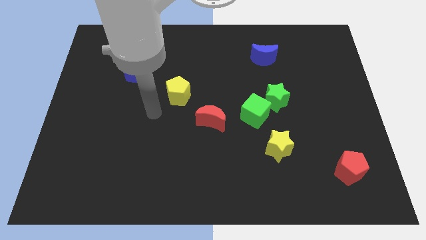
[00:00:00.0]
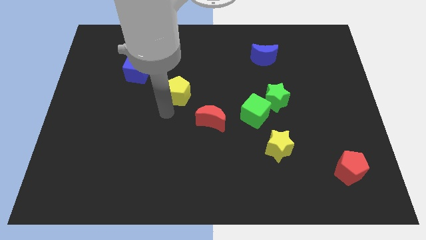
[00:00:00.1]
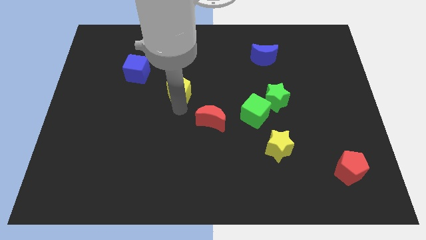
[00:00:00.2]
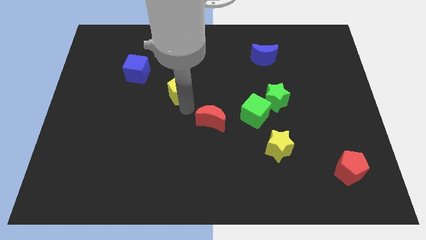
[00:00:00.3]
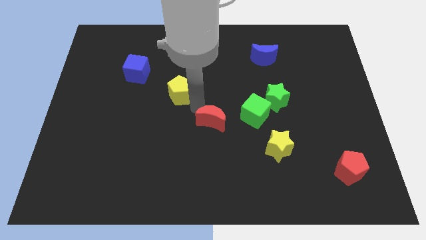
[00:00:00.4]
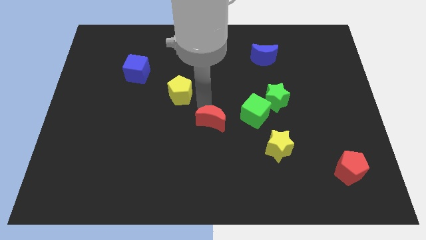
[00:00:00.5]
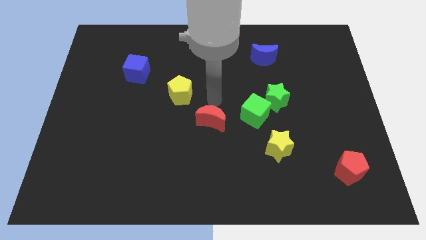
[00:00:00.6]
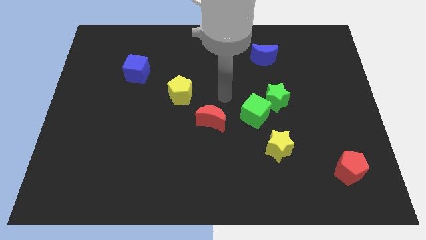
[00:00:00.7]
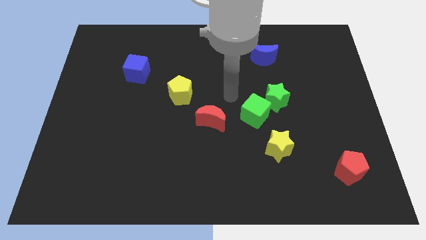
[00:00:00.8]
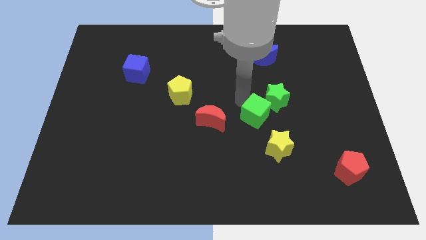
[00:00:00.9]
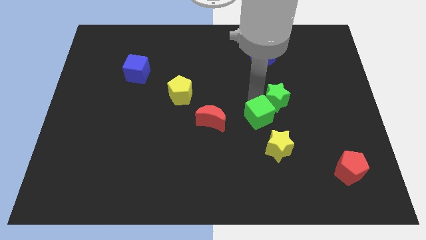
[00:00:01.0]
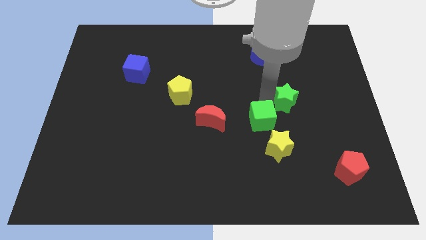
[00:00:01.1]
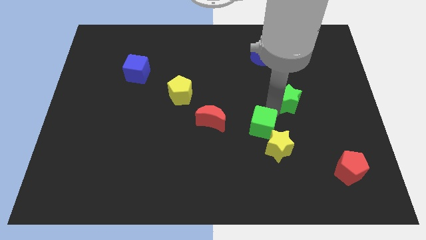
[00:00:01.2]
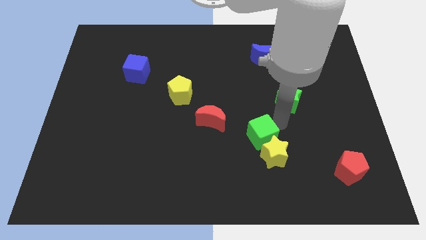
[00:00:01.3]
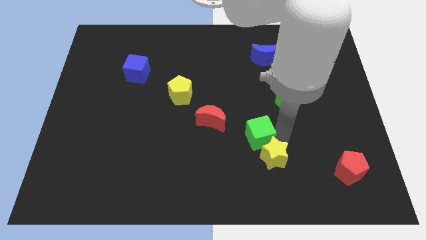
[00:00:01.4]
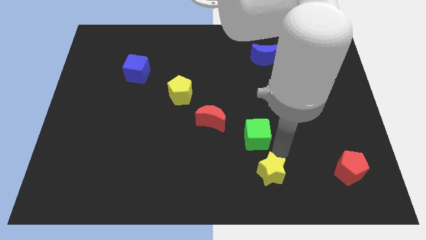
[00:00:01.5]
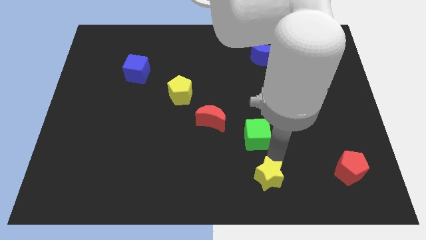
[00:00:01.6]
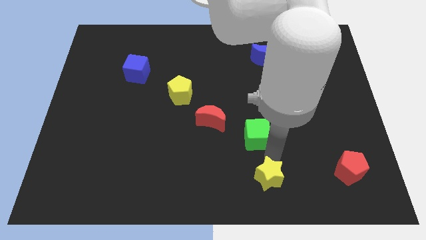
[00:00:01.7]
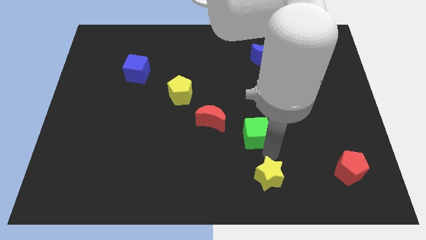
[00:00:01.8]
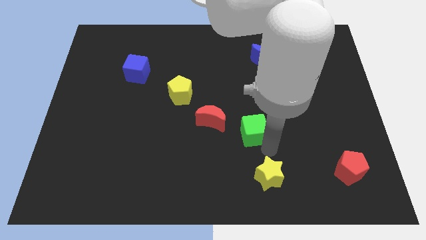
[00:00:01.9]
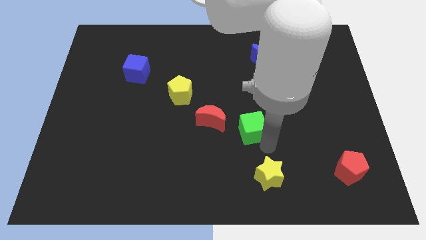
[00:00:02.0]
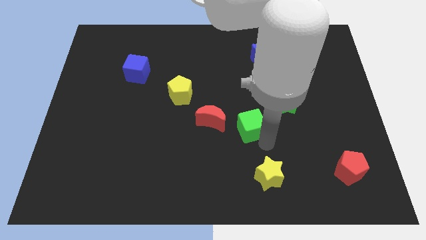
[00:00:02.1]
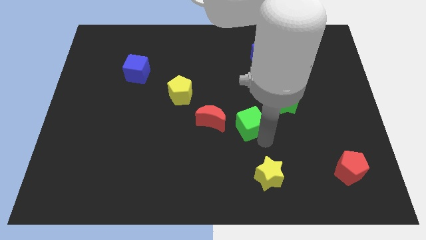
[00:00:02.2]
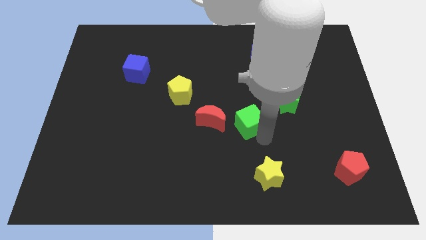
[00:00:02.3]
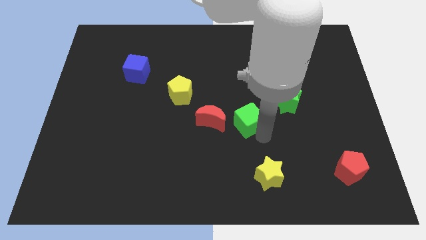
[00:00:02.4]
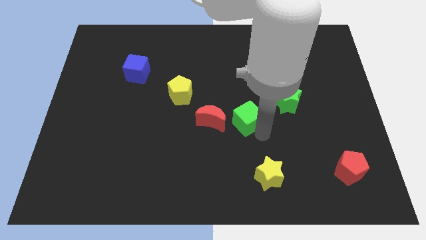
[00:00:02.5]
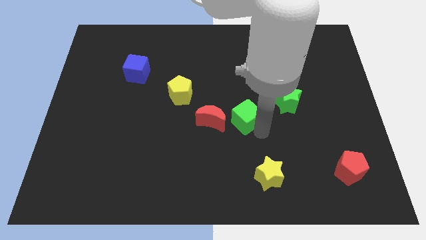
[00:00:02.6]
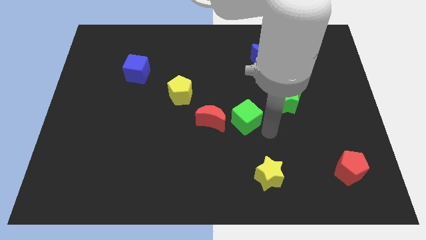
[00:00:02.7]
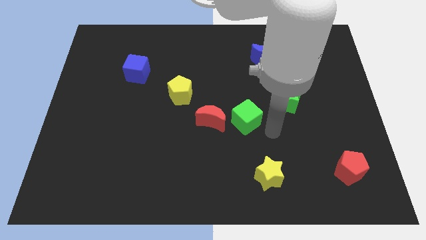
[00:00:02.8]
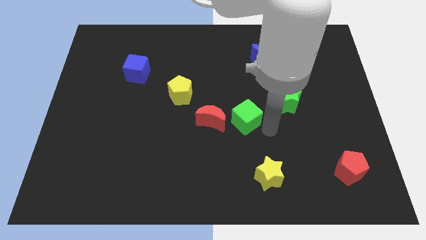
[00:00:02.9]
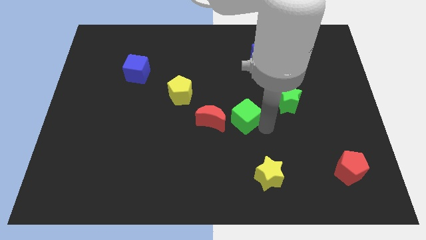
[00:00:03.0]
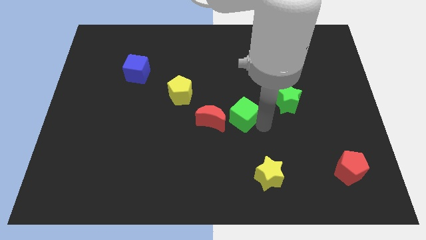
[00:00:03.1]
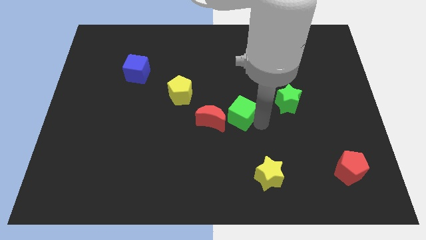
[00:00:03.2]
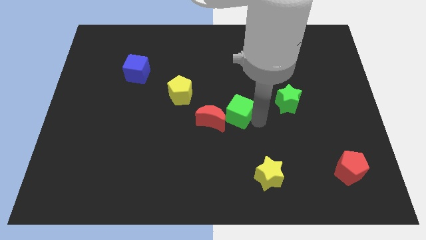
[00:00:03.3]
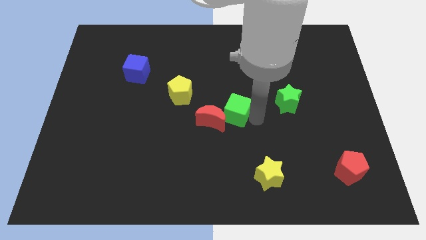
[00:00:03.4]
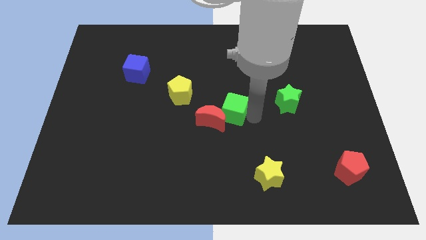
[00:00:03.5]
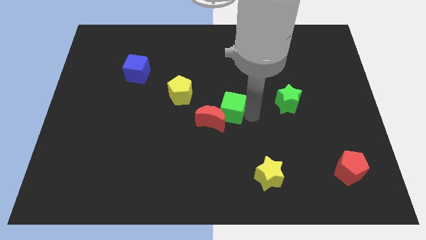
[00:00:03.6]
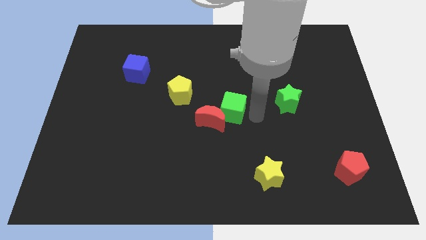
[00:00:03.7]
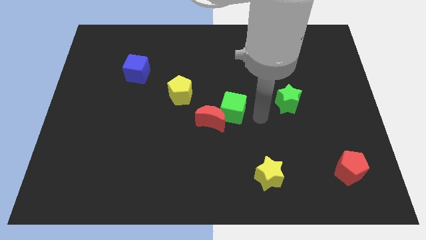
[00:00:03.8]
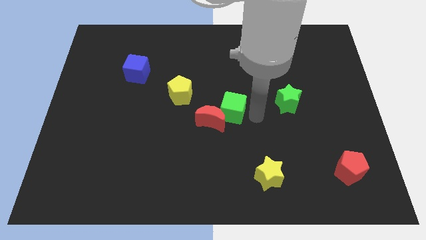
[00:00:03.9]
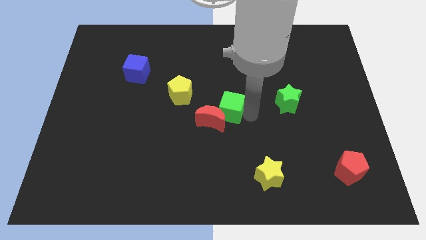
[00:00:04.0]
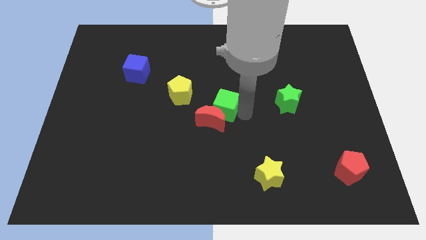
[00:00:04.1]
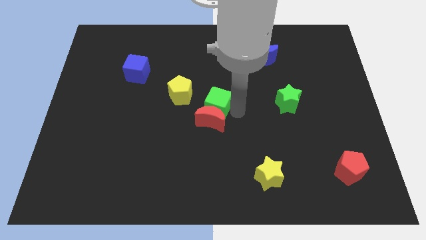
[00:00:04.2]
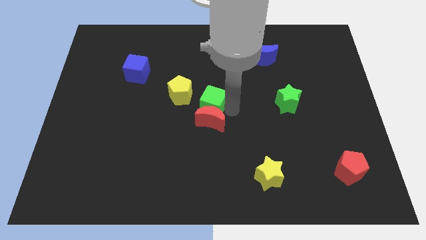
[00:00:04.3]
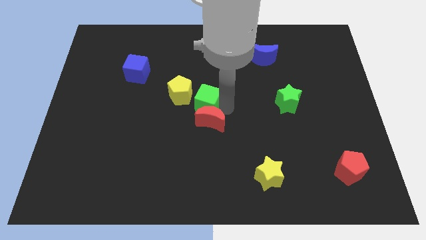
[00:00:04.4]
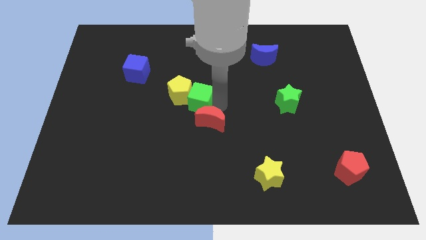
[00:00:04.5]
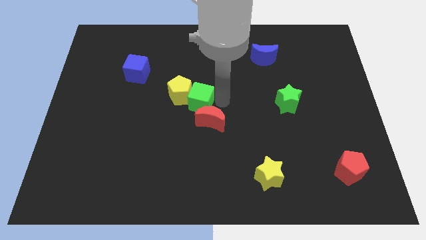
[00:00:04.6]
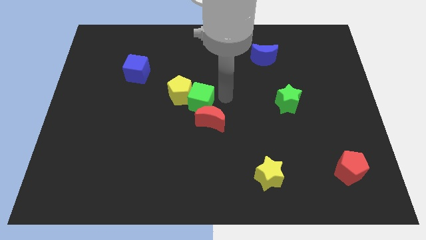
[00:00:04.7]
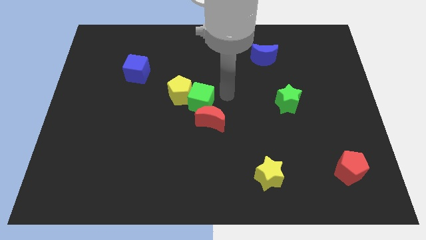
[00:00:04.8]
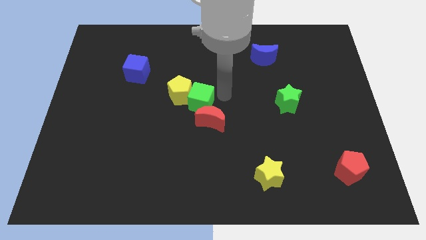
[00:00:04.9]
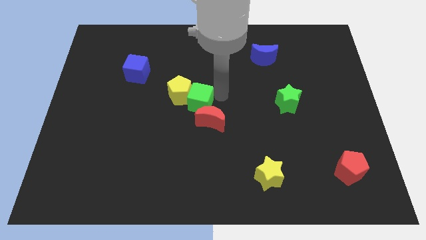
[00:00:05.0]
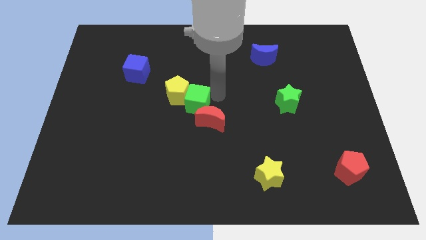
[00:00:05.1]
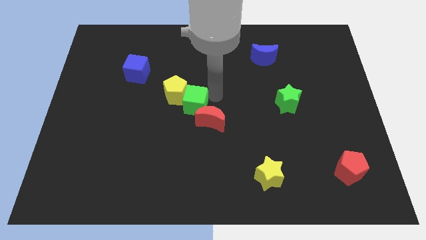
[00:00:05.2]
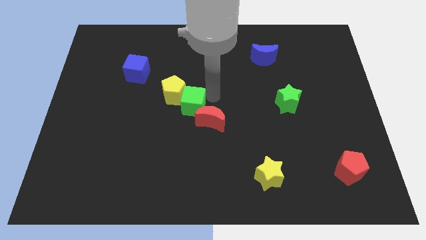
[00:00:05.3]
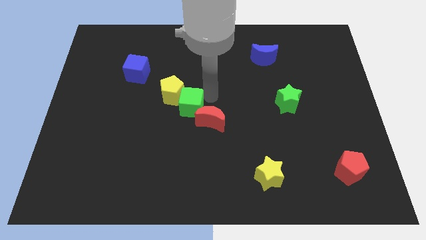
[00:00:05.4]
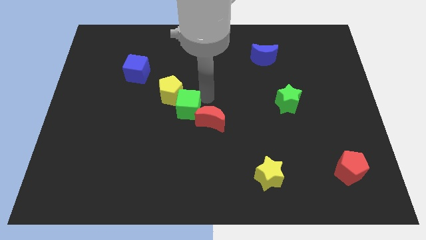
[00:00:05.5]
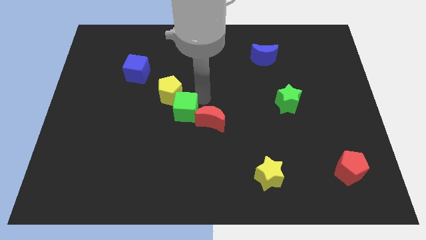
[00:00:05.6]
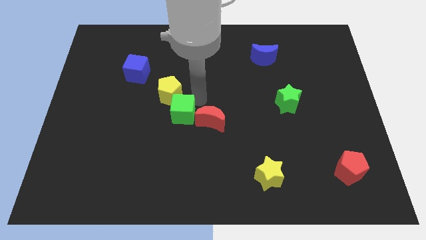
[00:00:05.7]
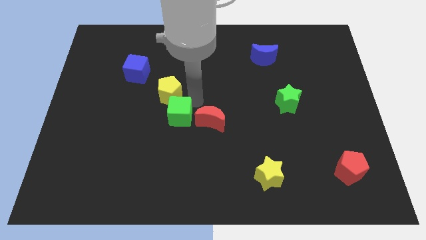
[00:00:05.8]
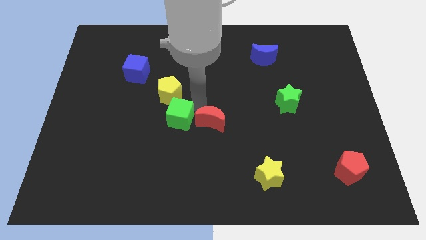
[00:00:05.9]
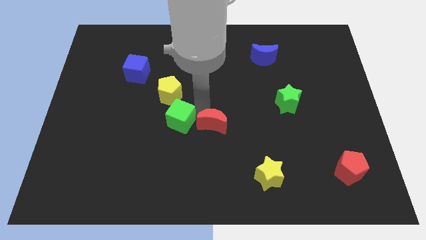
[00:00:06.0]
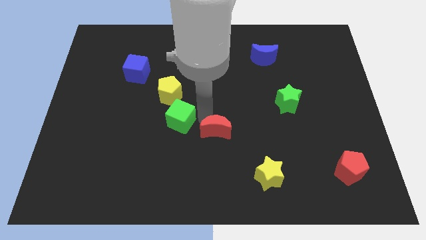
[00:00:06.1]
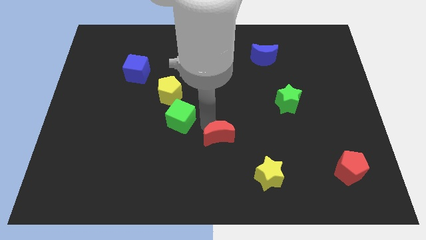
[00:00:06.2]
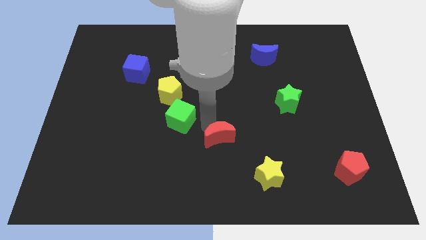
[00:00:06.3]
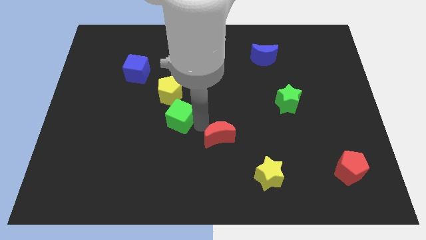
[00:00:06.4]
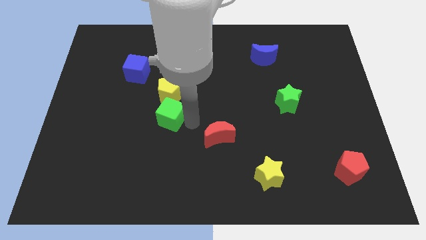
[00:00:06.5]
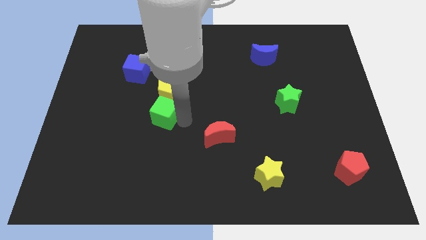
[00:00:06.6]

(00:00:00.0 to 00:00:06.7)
move the green cube to the bottom left of the yellow pentagon

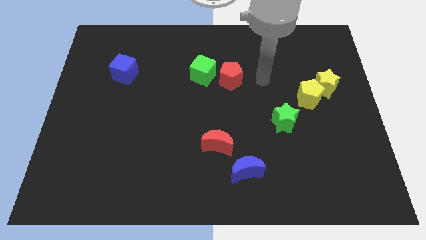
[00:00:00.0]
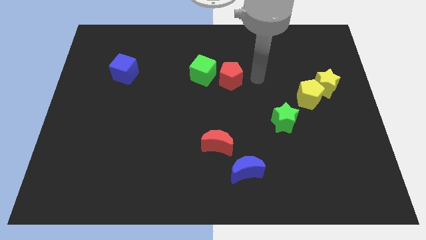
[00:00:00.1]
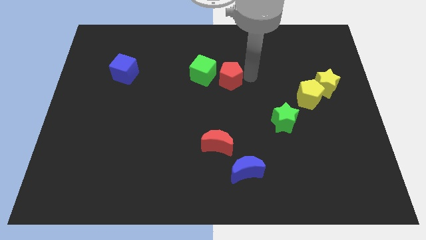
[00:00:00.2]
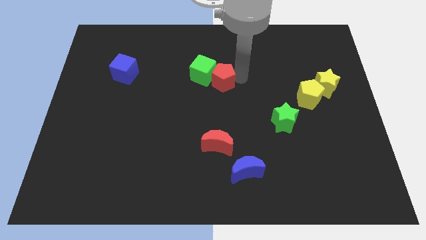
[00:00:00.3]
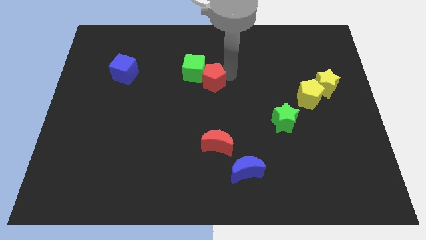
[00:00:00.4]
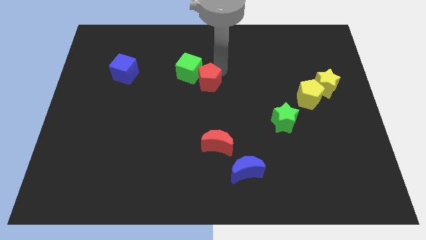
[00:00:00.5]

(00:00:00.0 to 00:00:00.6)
push the green cube just right of the blue cube

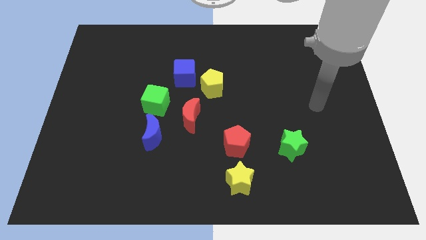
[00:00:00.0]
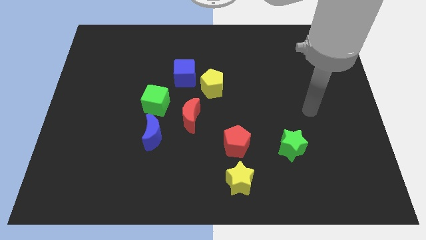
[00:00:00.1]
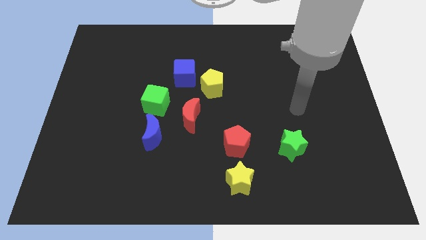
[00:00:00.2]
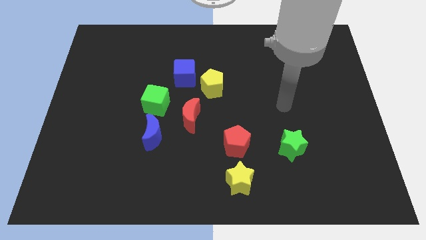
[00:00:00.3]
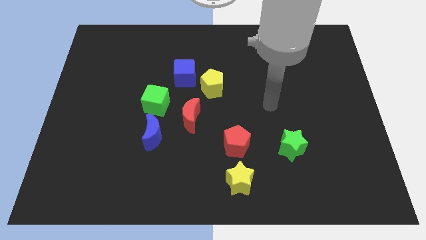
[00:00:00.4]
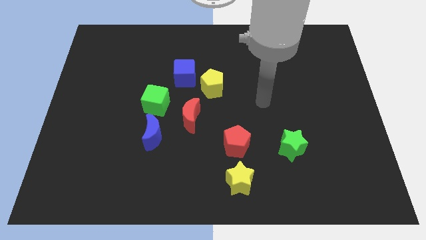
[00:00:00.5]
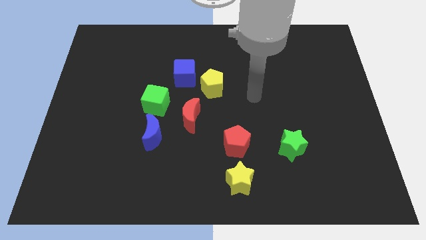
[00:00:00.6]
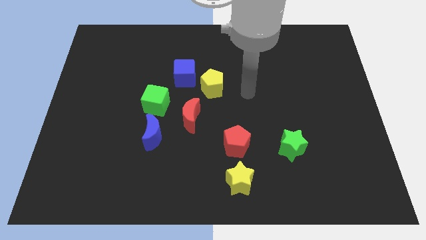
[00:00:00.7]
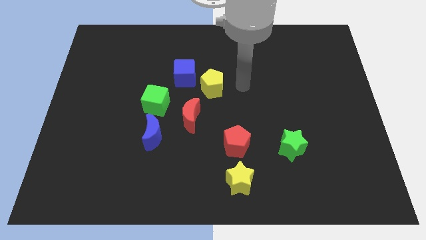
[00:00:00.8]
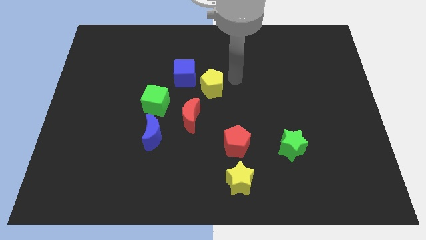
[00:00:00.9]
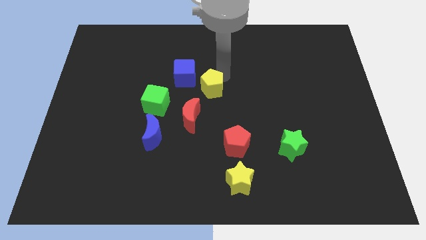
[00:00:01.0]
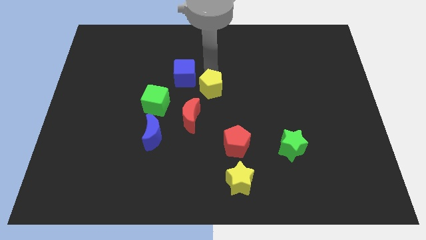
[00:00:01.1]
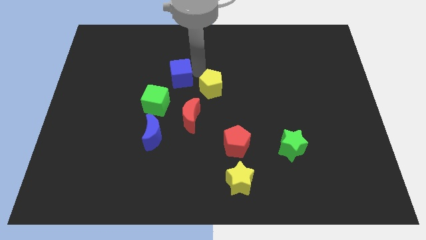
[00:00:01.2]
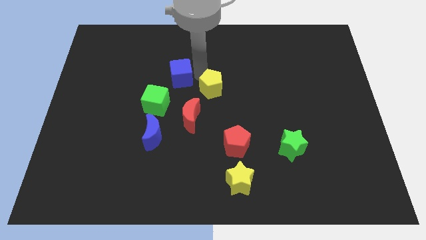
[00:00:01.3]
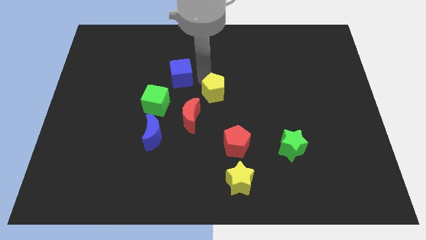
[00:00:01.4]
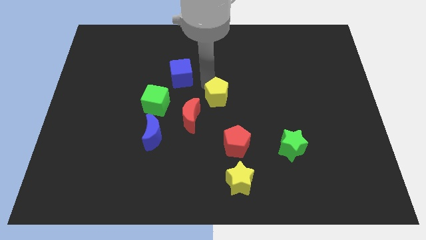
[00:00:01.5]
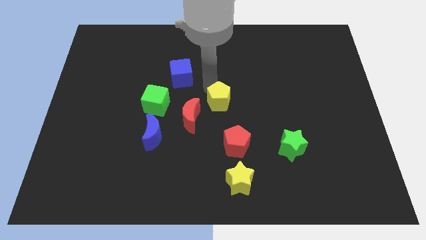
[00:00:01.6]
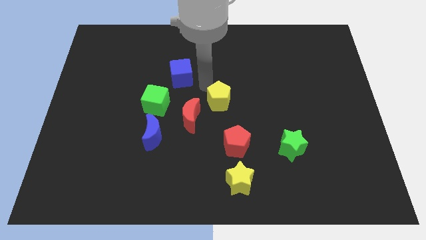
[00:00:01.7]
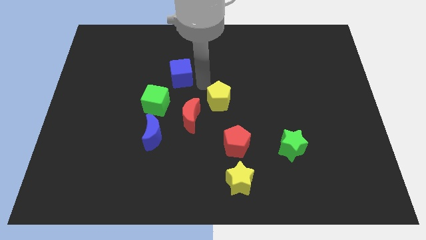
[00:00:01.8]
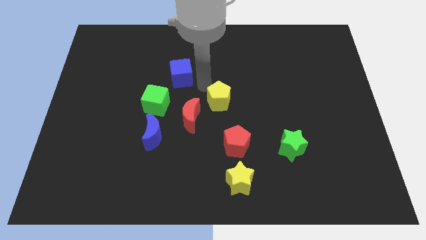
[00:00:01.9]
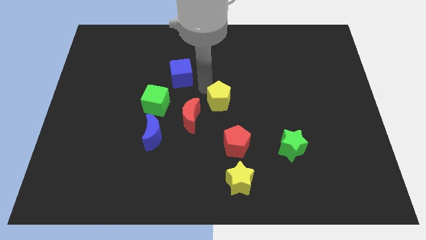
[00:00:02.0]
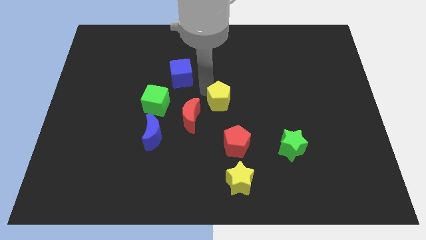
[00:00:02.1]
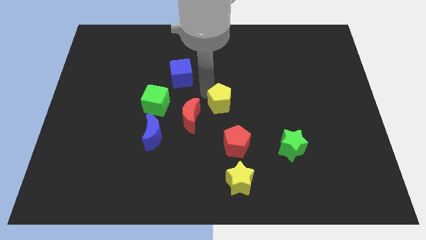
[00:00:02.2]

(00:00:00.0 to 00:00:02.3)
move the yellow pentagon to the right side of the red moon
